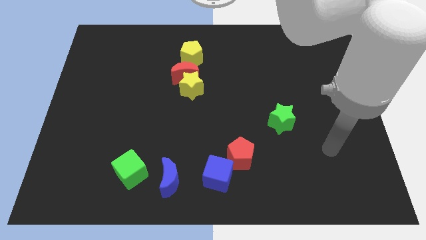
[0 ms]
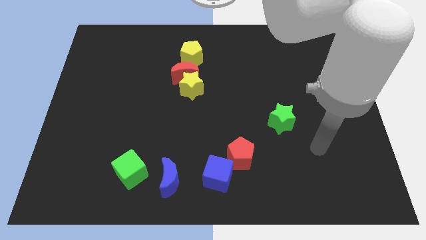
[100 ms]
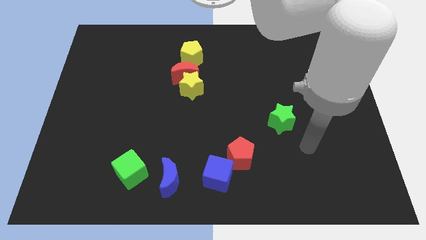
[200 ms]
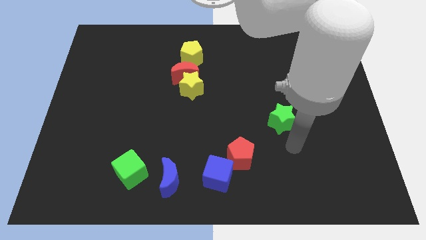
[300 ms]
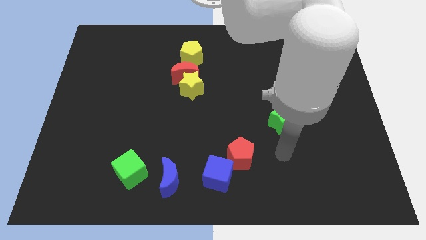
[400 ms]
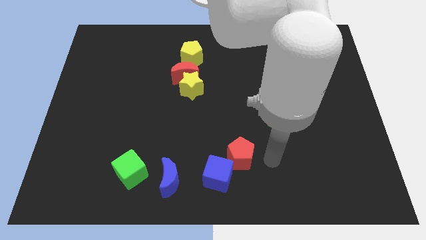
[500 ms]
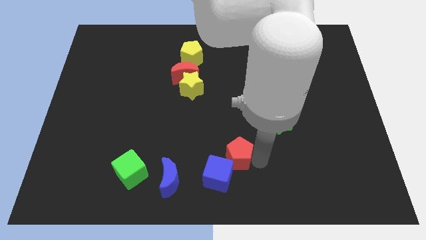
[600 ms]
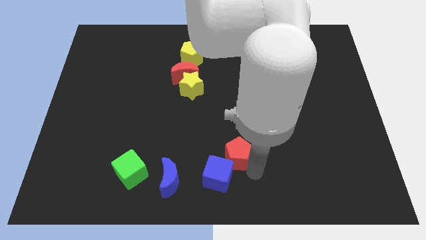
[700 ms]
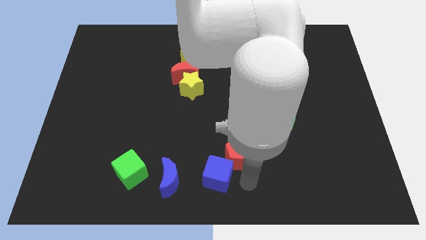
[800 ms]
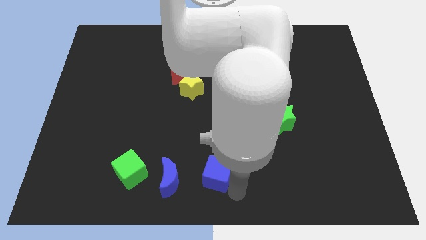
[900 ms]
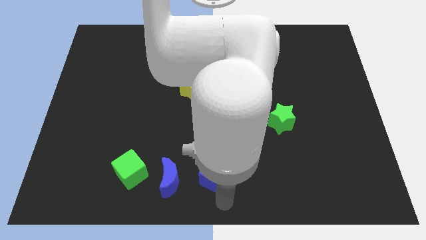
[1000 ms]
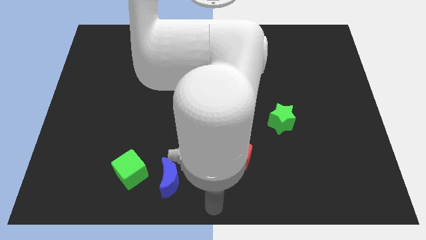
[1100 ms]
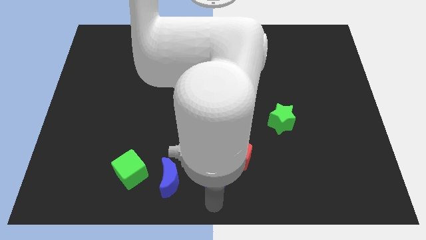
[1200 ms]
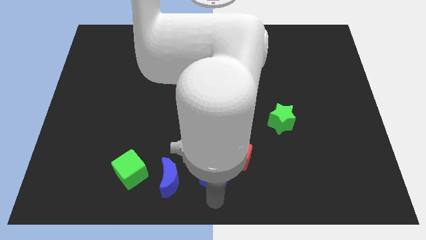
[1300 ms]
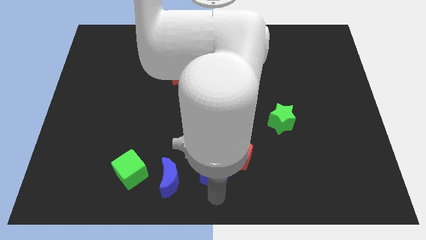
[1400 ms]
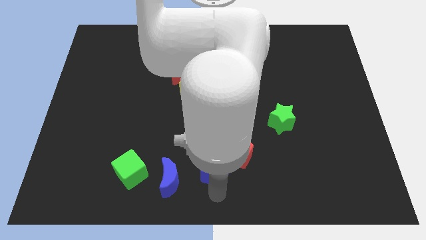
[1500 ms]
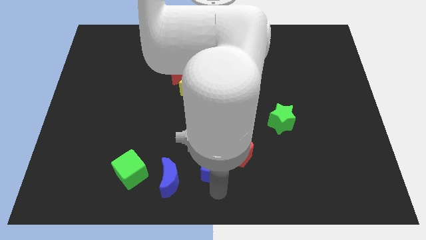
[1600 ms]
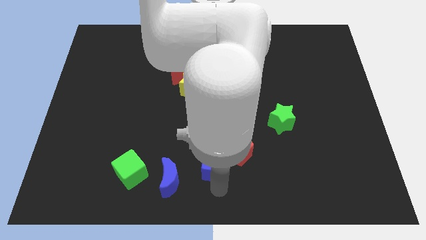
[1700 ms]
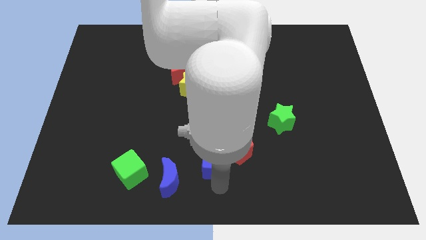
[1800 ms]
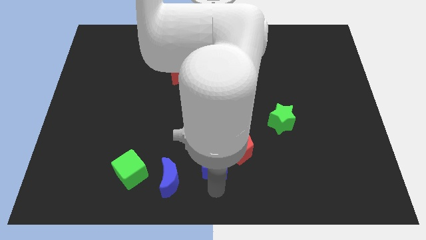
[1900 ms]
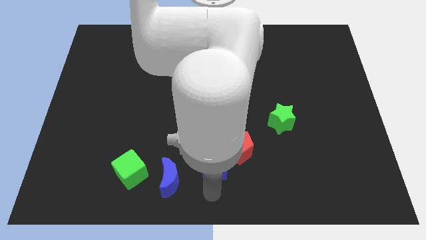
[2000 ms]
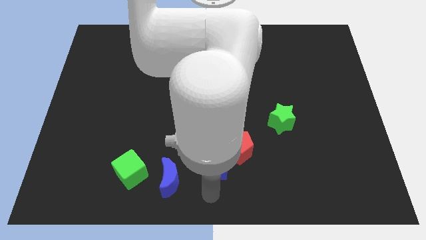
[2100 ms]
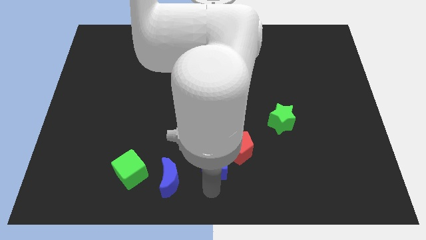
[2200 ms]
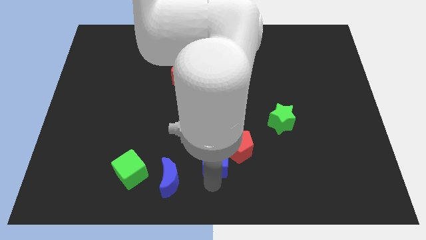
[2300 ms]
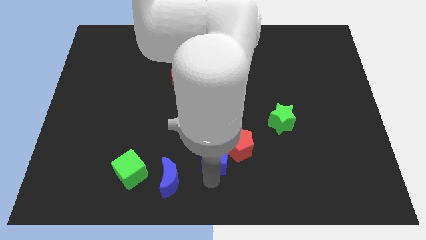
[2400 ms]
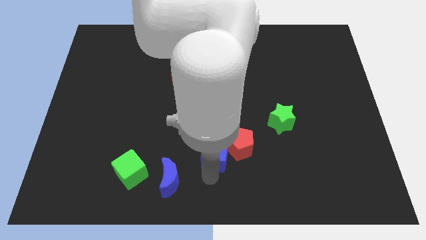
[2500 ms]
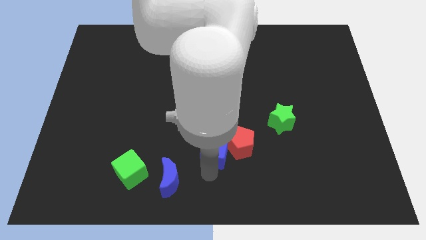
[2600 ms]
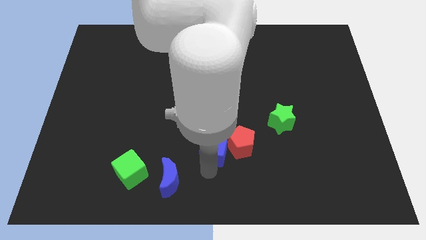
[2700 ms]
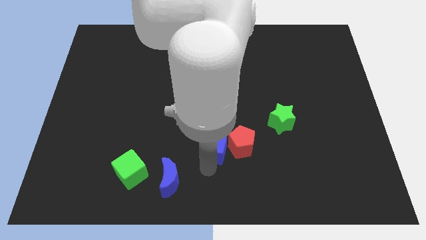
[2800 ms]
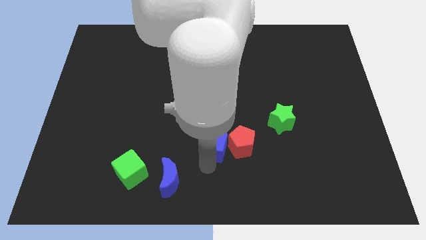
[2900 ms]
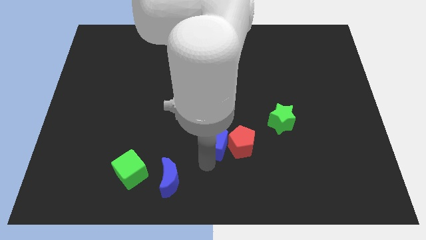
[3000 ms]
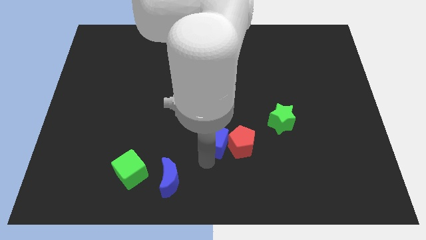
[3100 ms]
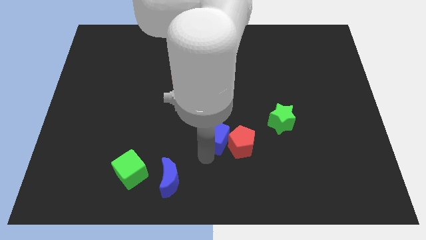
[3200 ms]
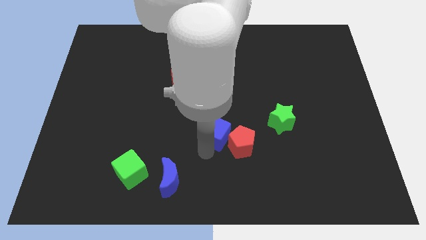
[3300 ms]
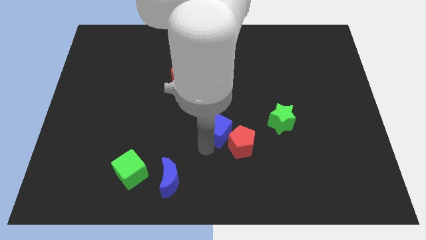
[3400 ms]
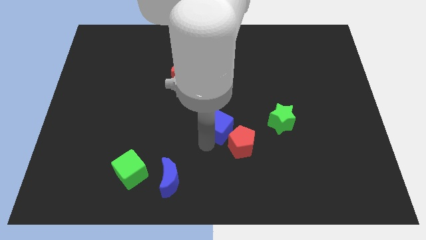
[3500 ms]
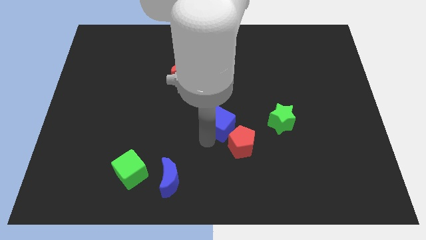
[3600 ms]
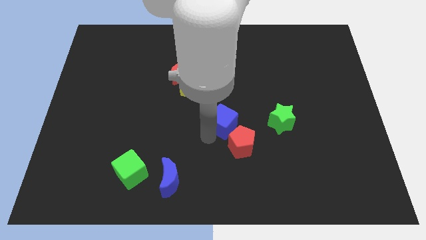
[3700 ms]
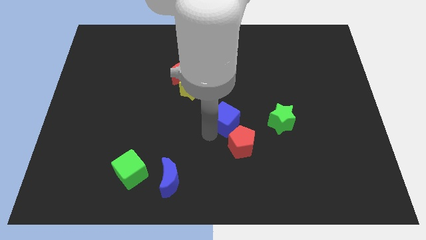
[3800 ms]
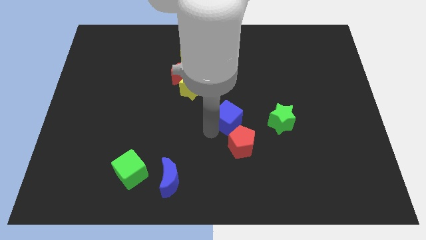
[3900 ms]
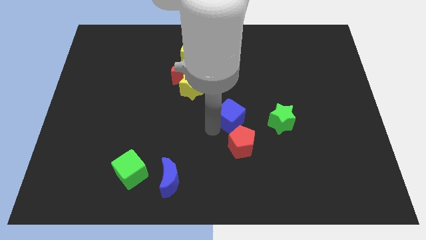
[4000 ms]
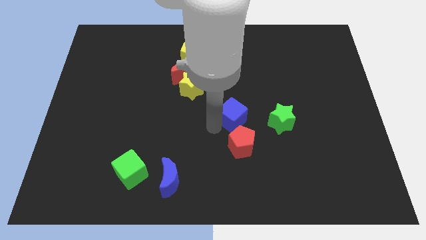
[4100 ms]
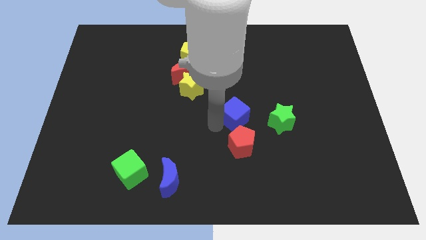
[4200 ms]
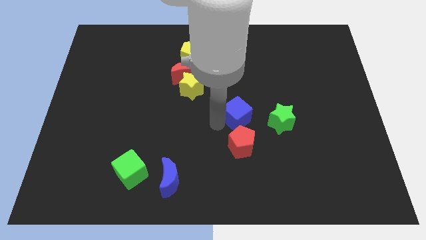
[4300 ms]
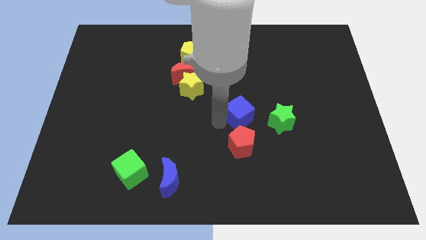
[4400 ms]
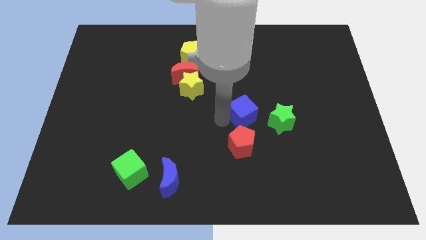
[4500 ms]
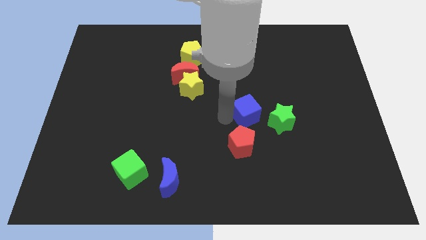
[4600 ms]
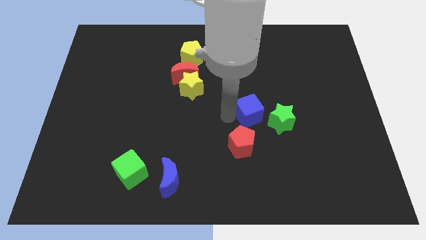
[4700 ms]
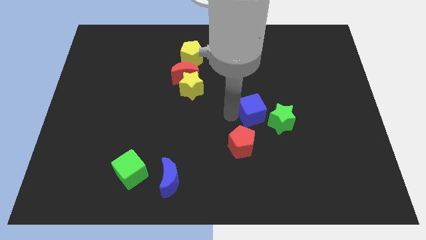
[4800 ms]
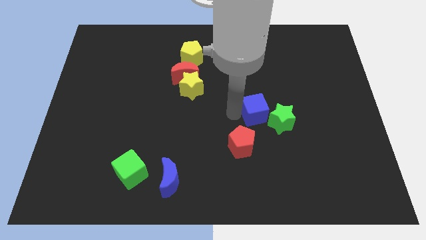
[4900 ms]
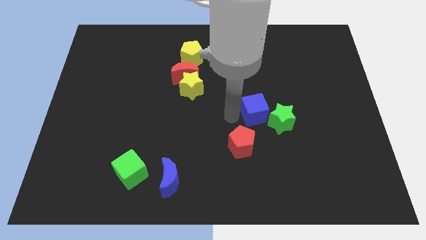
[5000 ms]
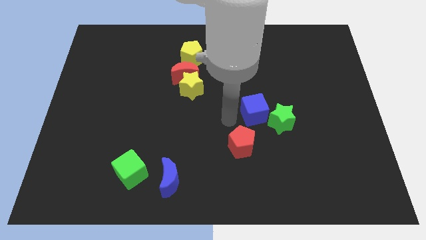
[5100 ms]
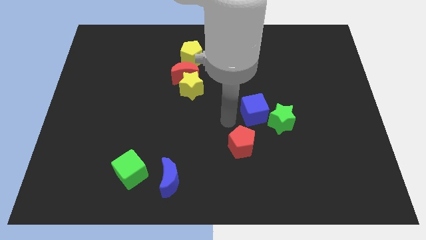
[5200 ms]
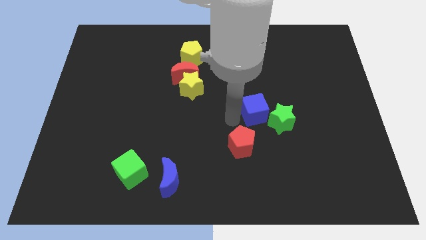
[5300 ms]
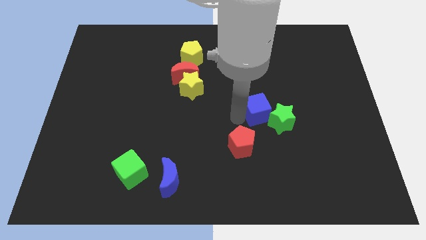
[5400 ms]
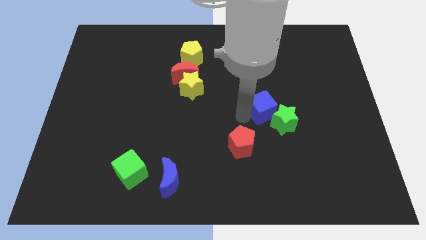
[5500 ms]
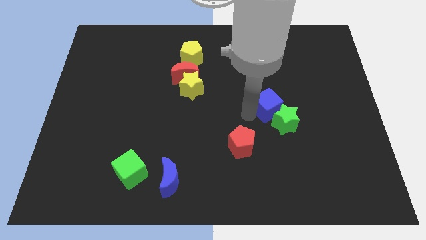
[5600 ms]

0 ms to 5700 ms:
slide the blue cube up and to the right diagonally

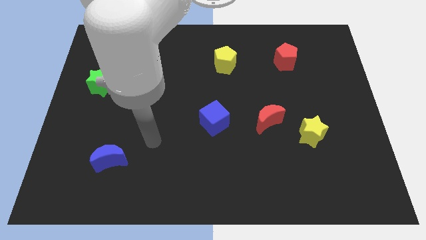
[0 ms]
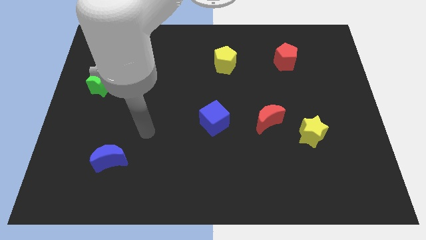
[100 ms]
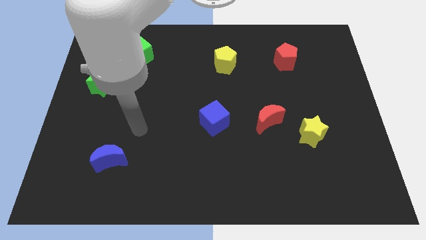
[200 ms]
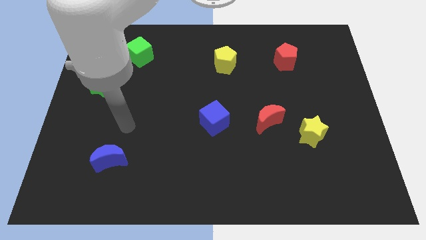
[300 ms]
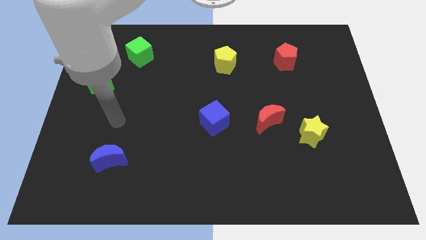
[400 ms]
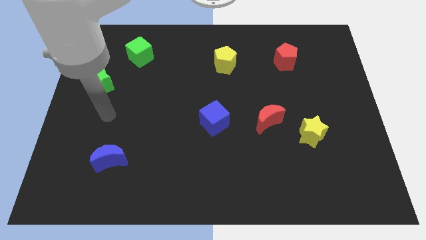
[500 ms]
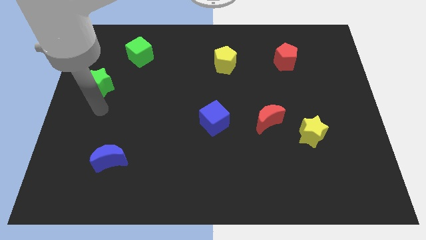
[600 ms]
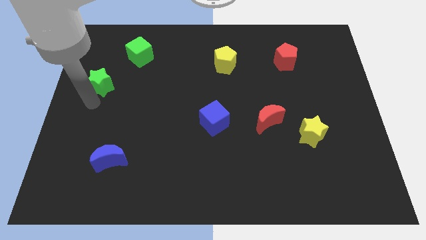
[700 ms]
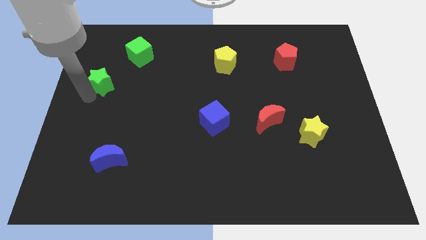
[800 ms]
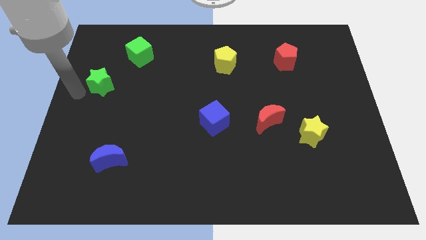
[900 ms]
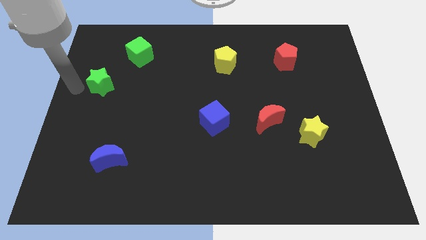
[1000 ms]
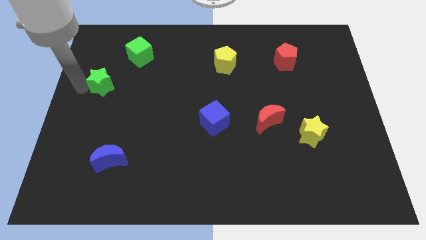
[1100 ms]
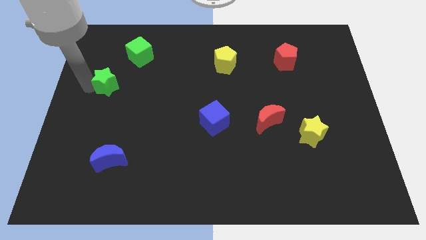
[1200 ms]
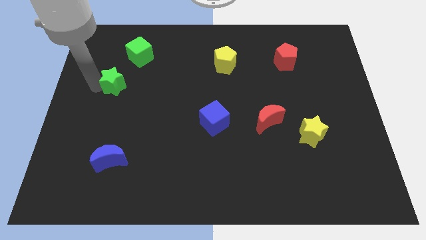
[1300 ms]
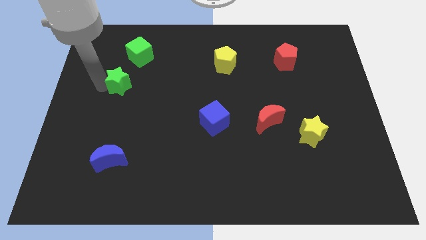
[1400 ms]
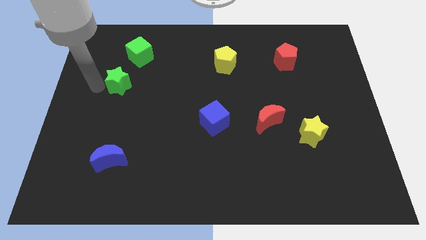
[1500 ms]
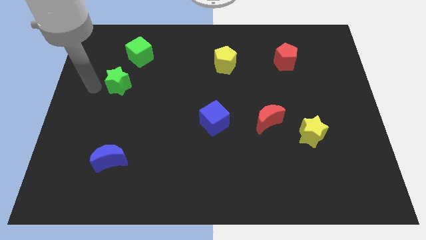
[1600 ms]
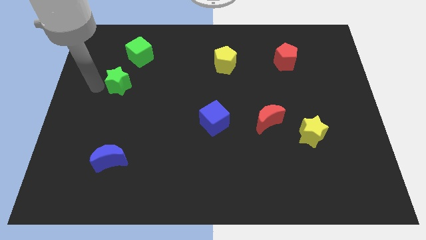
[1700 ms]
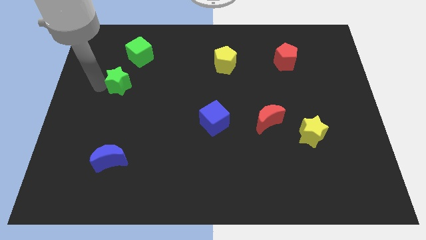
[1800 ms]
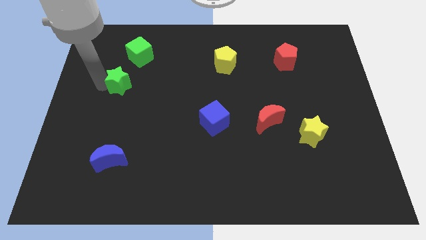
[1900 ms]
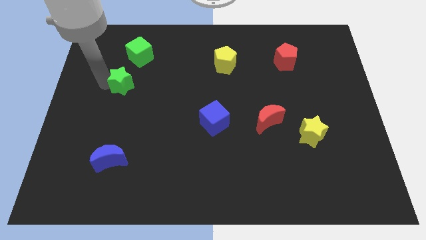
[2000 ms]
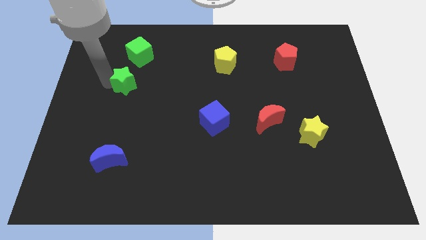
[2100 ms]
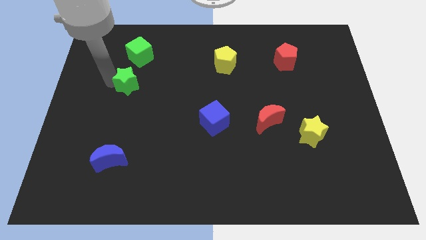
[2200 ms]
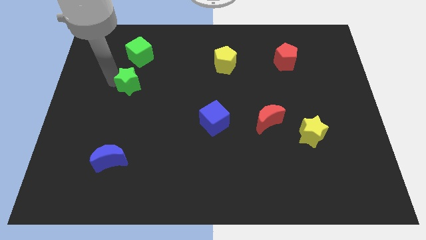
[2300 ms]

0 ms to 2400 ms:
slightly move the green star to the right
